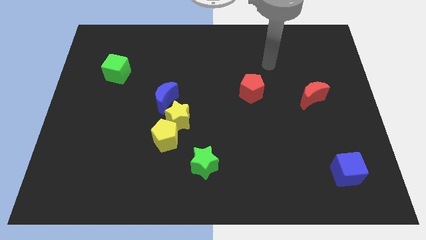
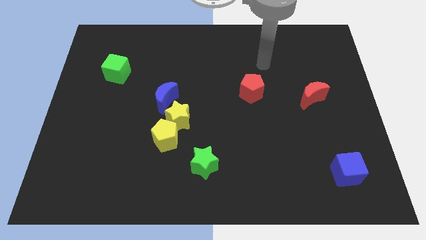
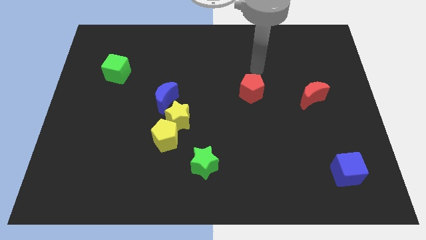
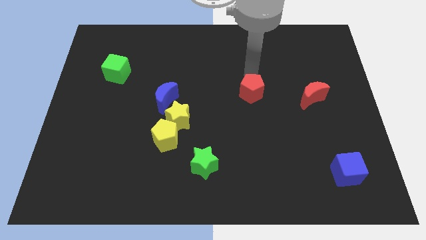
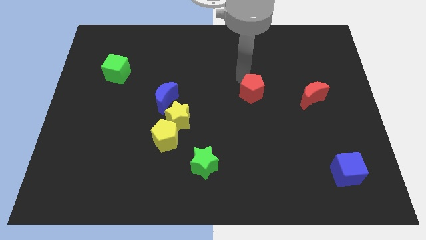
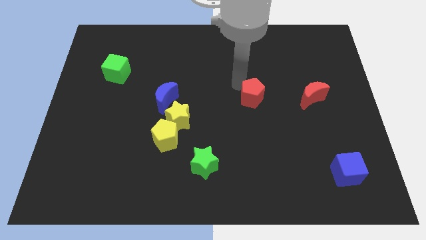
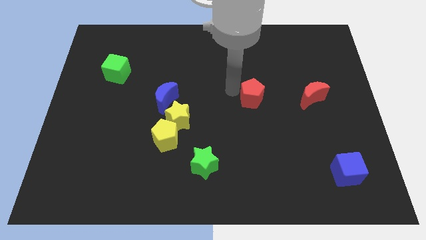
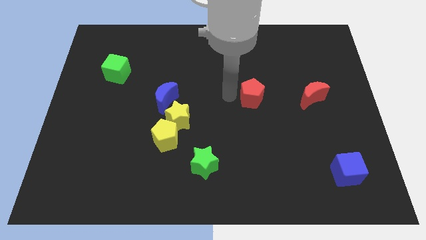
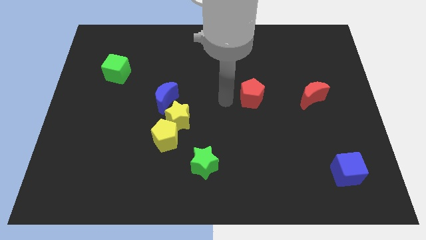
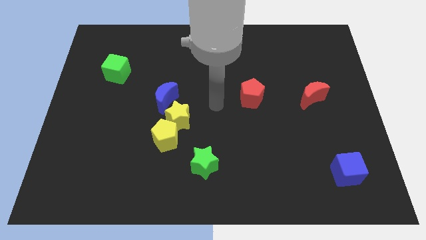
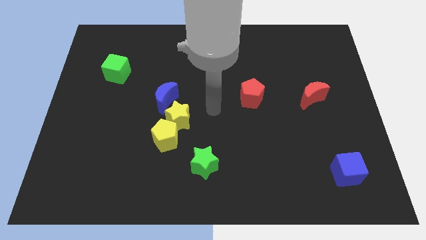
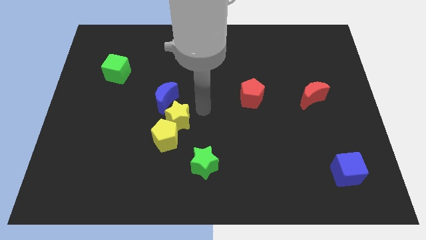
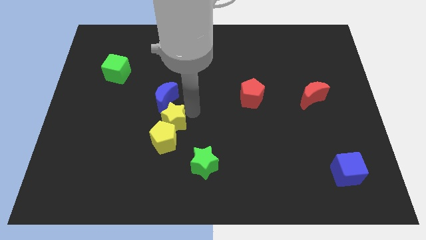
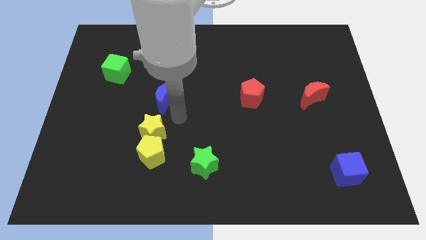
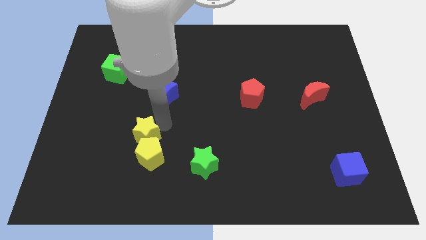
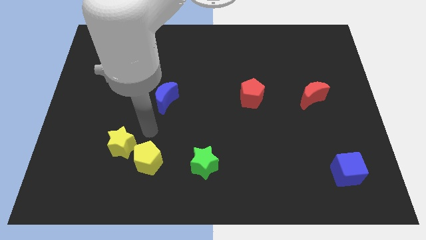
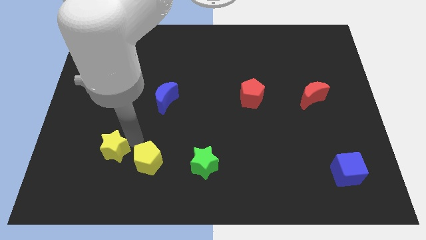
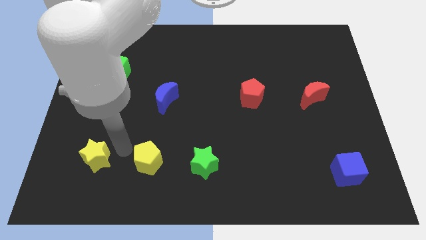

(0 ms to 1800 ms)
separate the yellow pentagon from the yellow star

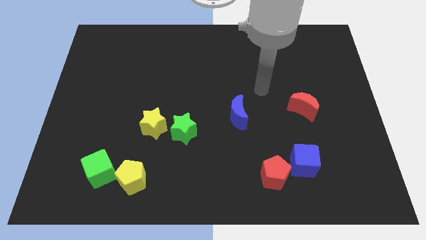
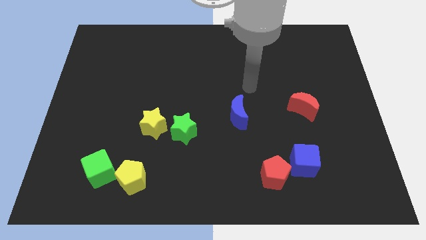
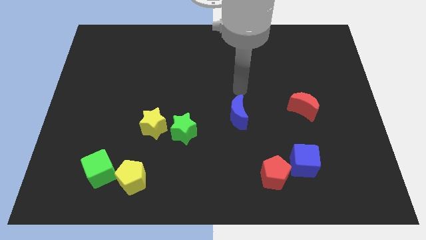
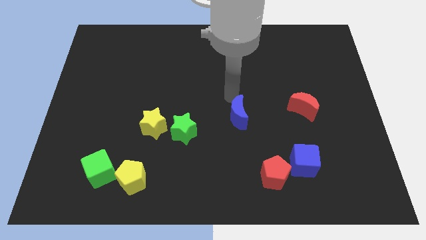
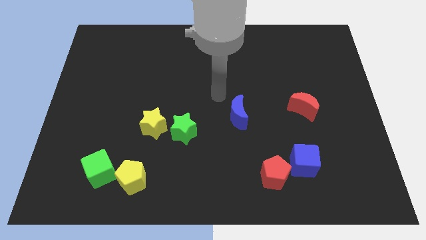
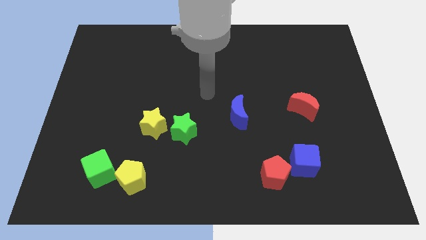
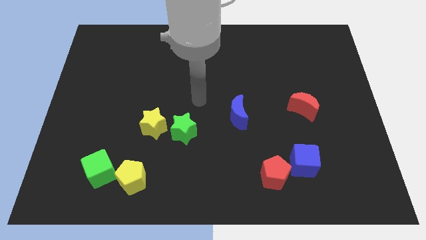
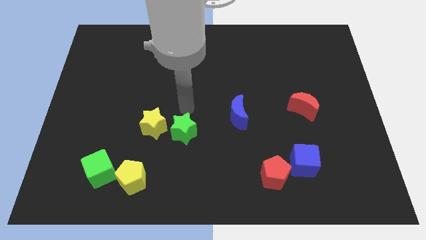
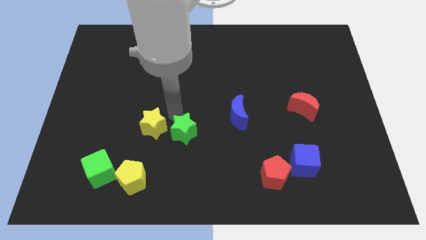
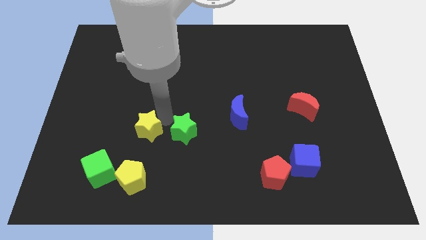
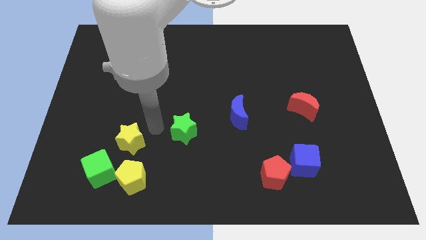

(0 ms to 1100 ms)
move the green star away from the yellow star

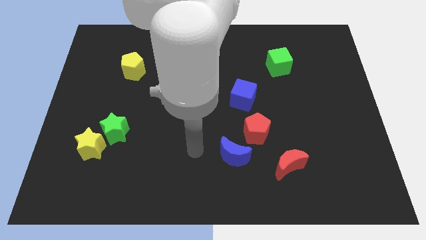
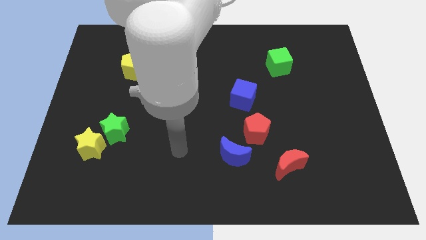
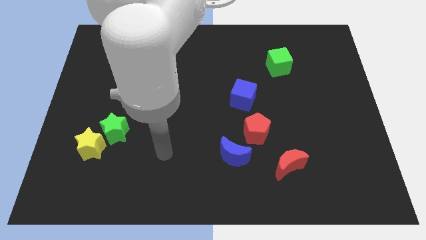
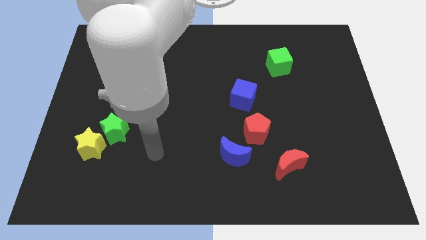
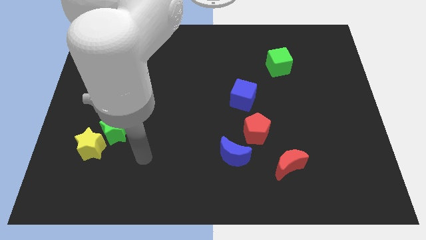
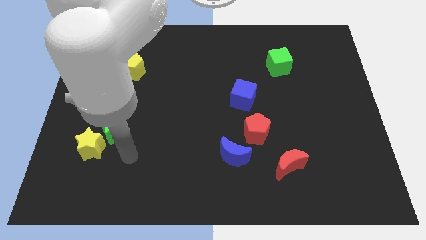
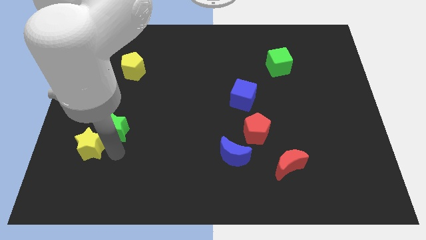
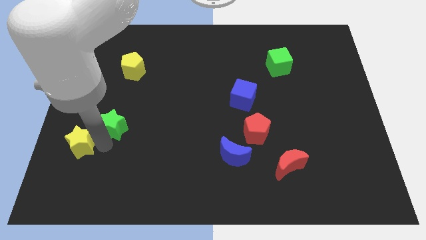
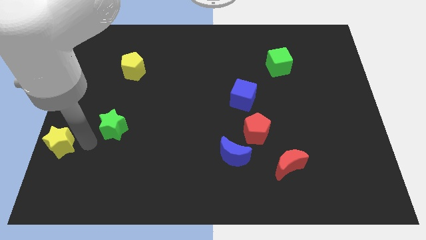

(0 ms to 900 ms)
separate the green star from the yellow star

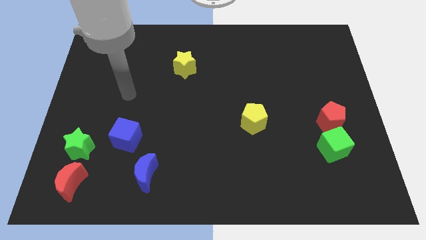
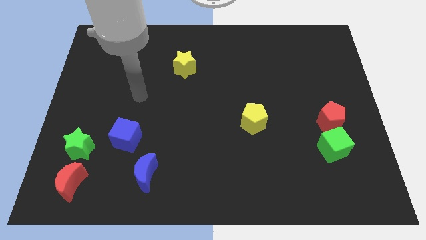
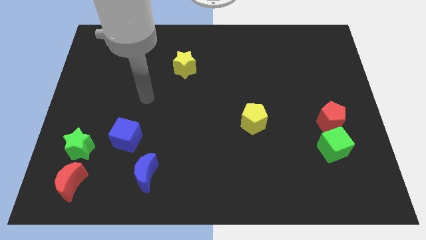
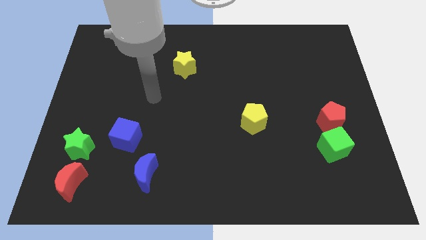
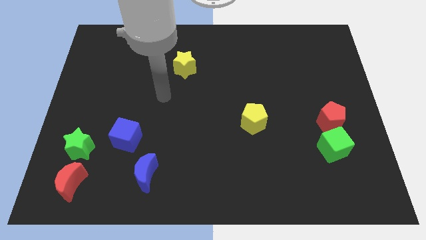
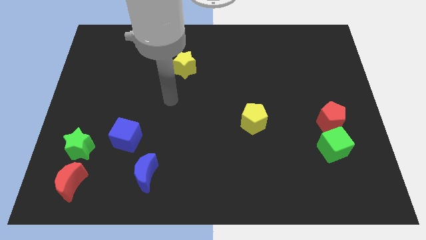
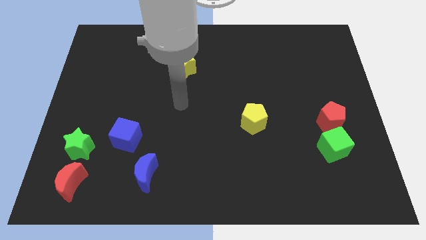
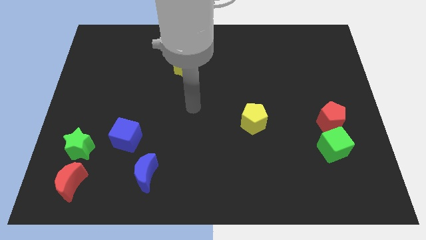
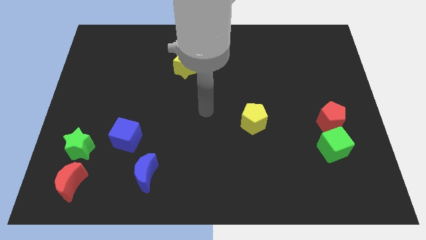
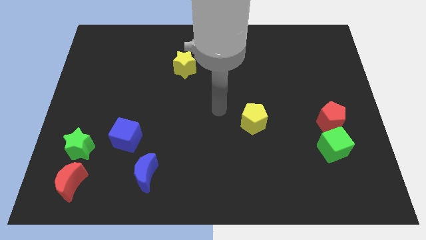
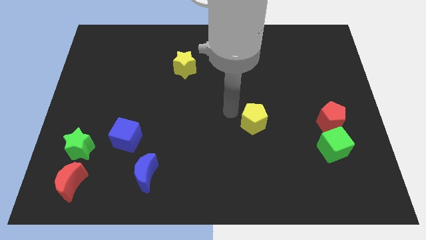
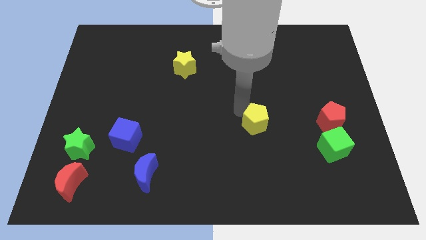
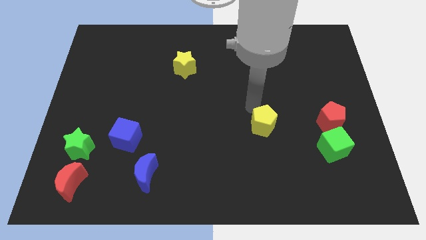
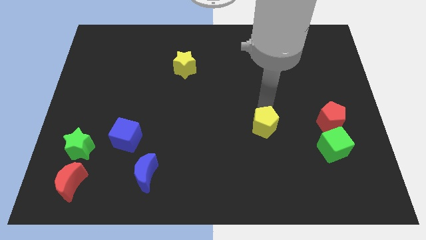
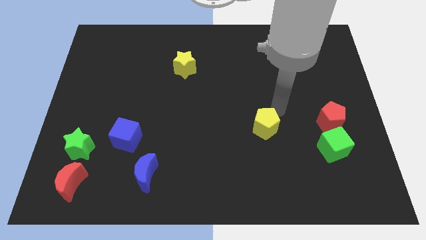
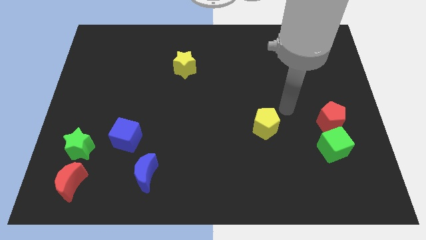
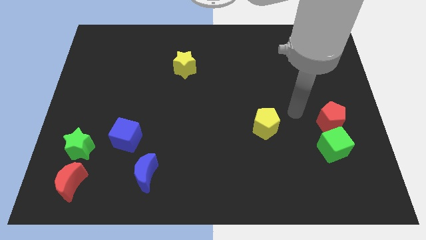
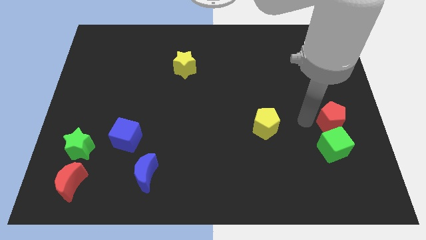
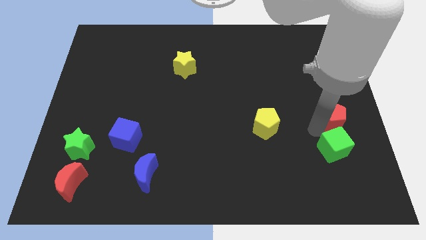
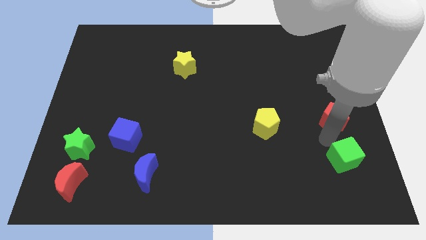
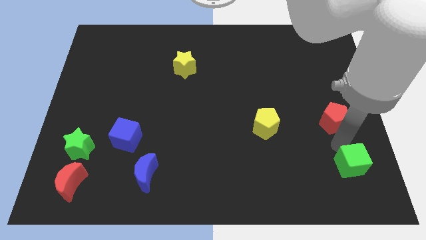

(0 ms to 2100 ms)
pull the red pentagon apart from the green cube

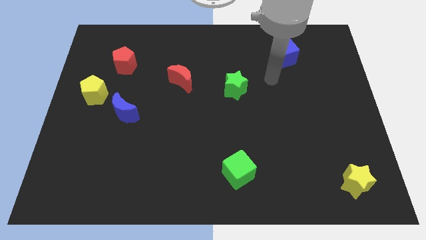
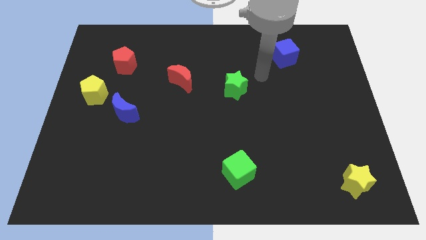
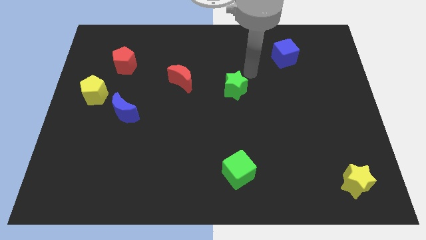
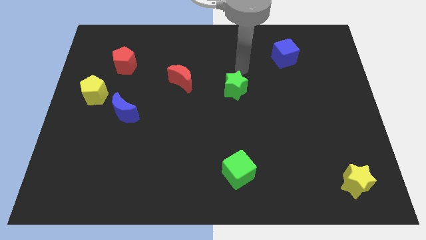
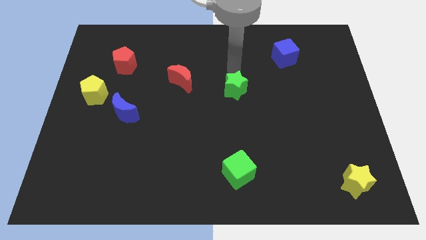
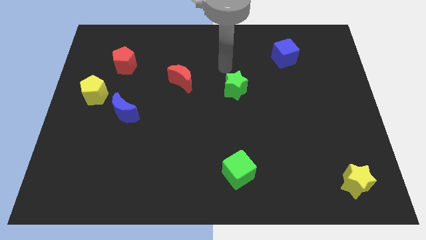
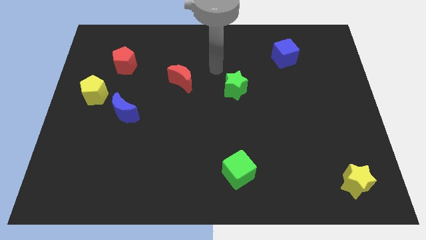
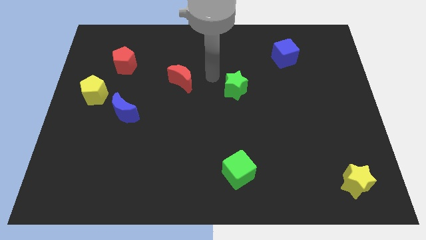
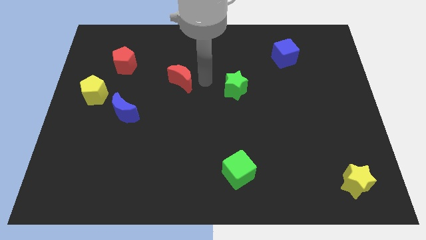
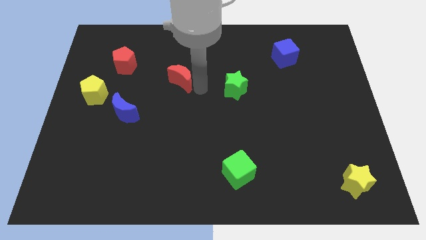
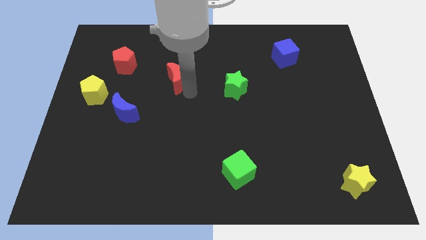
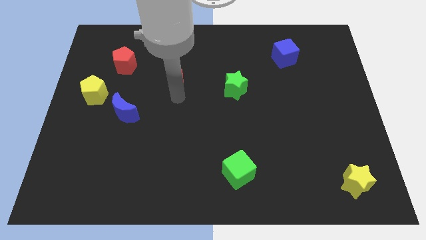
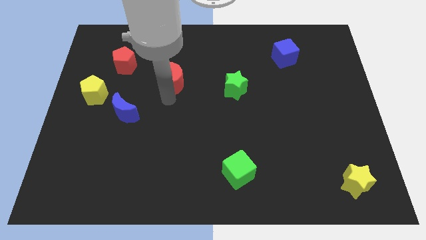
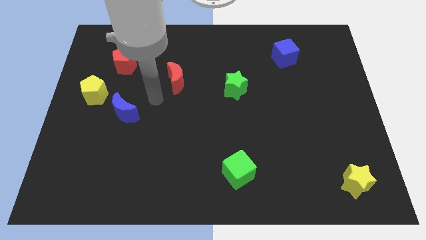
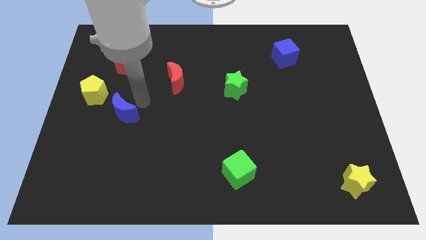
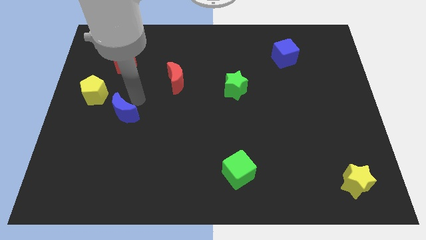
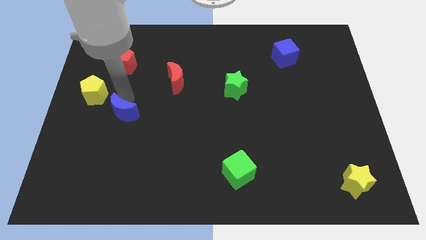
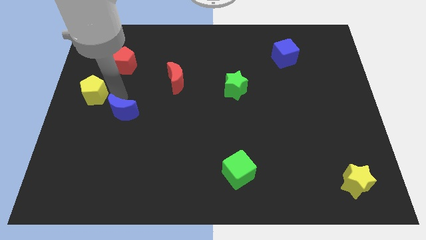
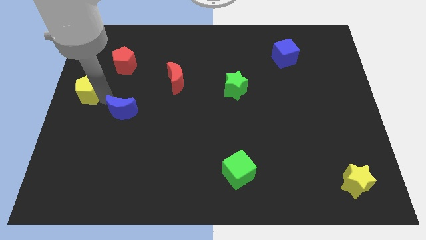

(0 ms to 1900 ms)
separate the blue moon from the yellow pentagon

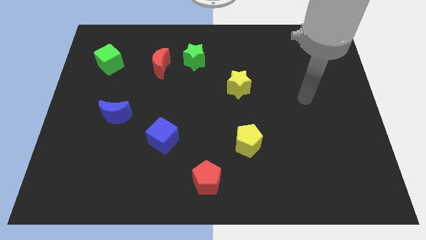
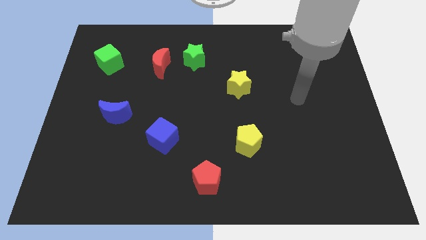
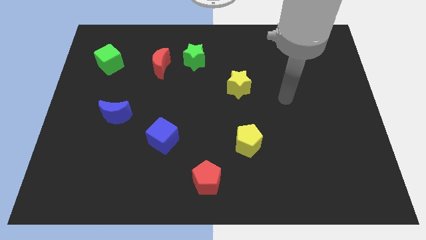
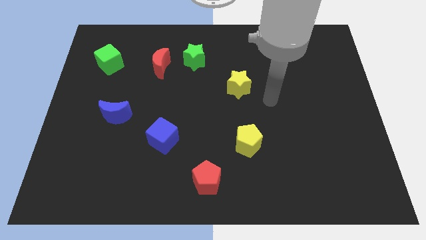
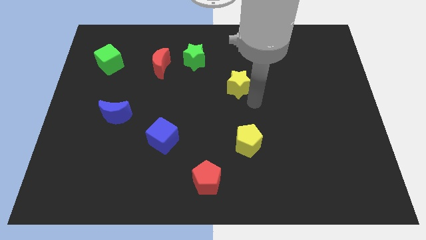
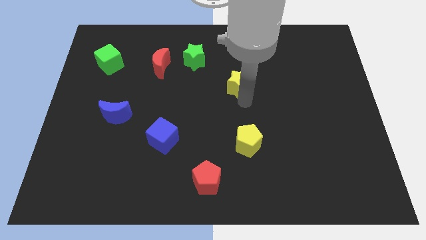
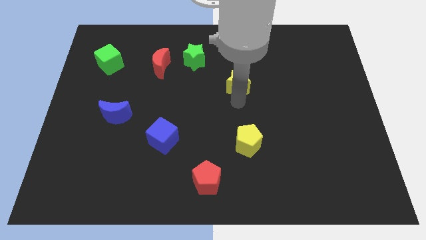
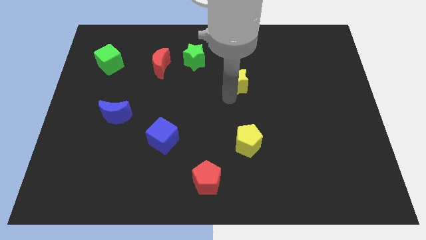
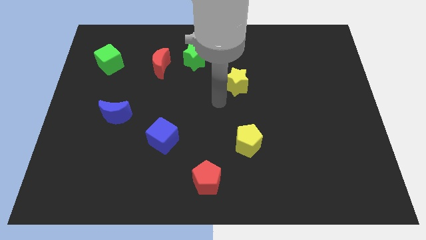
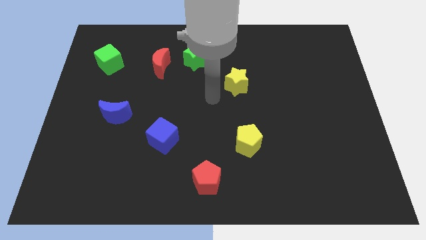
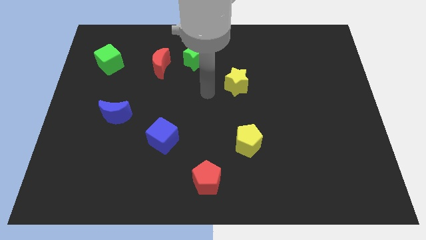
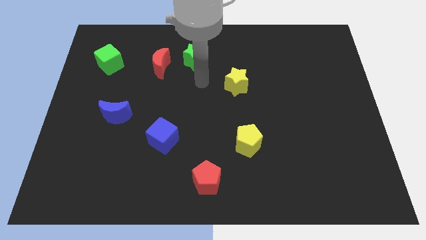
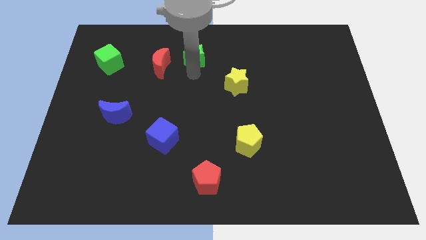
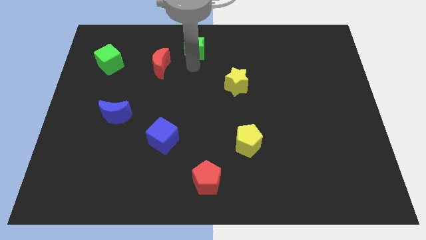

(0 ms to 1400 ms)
pull the red moon apart from the green star

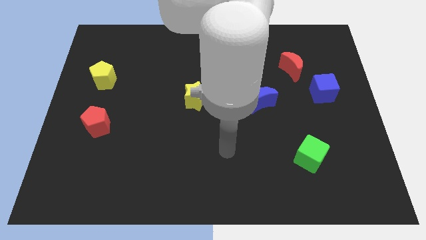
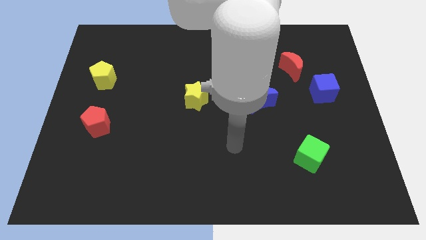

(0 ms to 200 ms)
pull the blue moon apart from the green star
